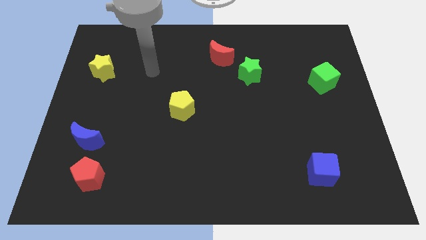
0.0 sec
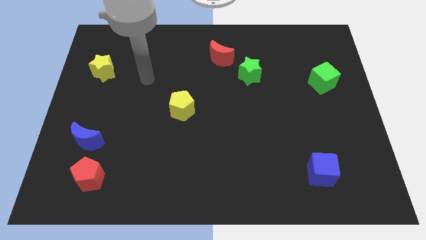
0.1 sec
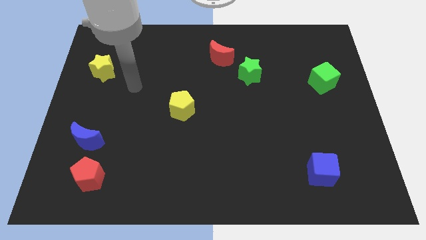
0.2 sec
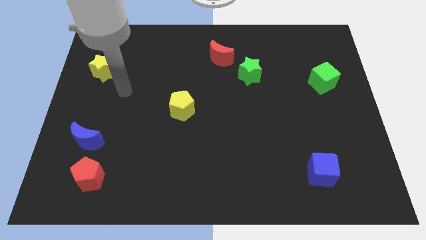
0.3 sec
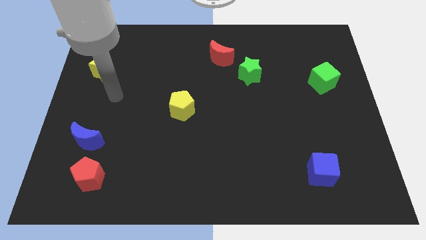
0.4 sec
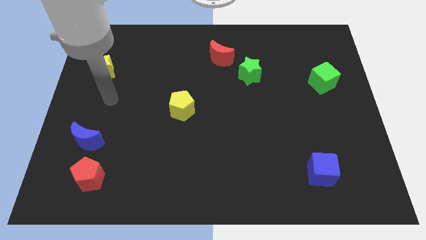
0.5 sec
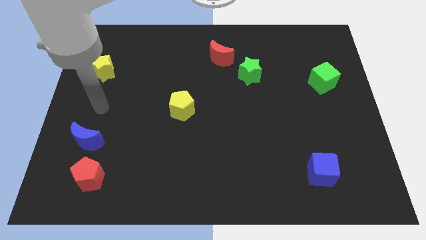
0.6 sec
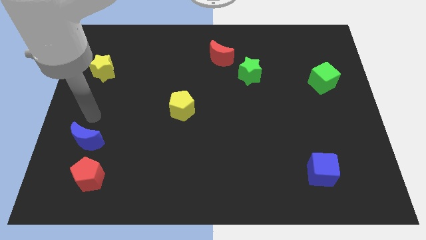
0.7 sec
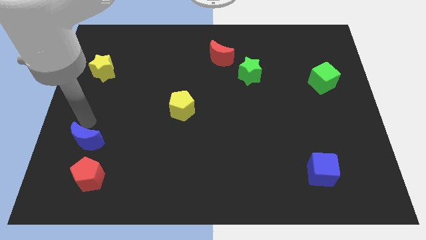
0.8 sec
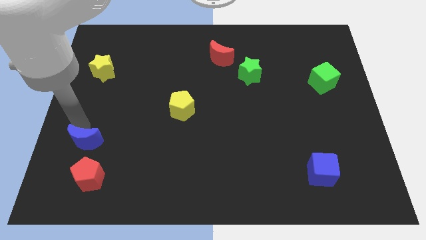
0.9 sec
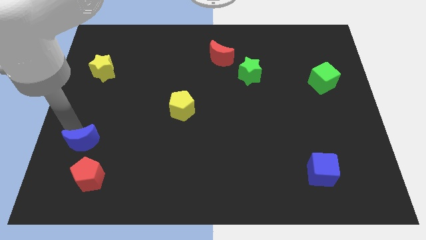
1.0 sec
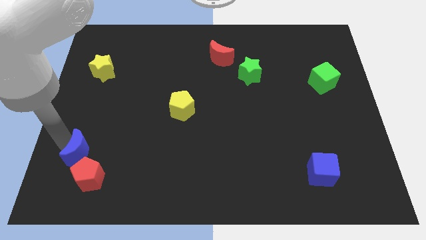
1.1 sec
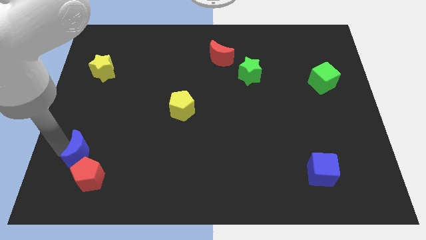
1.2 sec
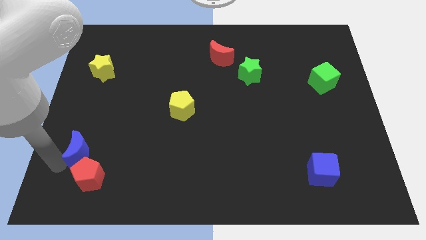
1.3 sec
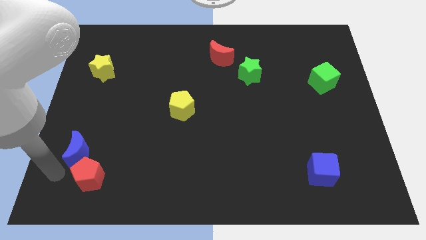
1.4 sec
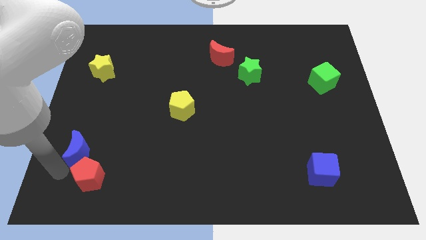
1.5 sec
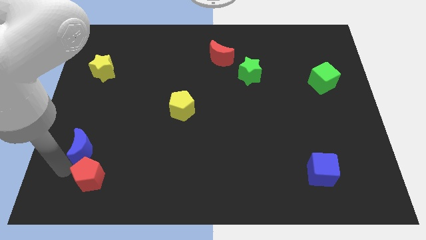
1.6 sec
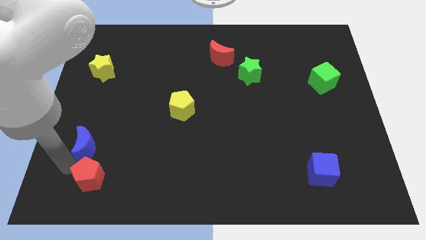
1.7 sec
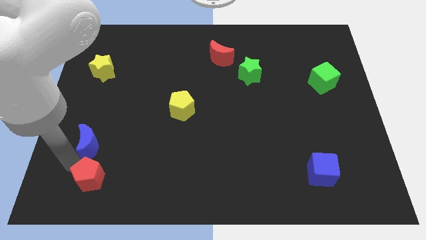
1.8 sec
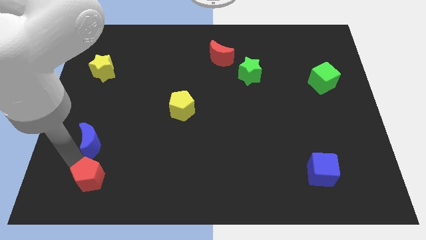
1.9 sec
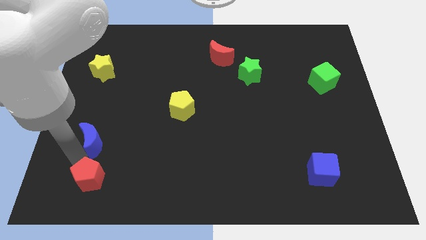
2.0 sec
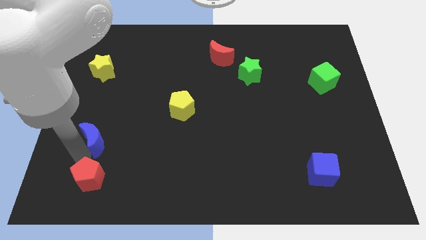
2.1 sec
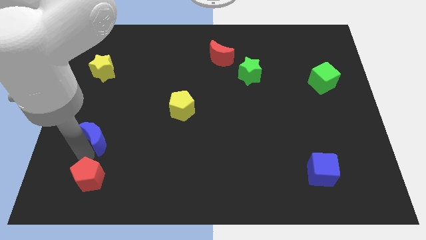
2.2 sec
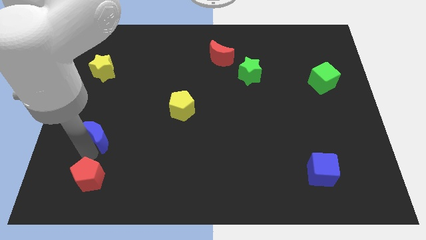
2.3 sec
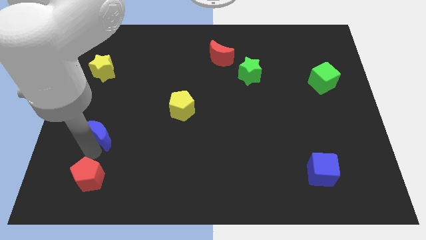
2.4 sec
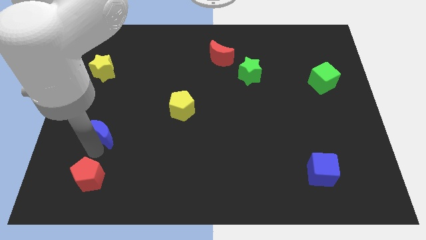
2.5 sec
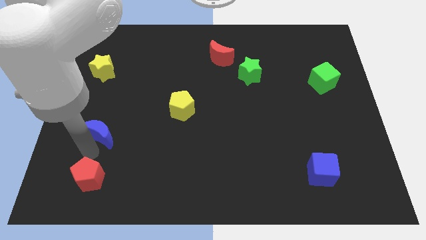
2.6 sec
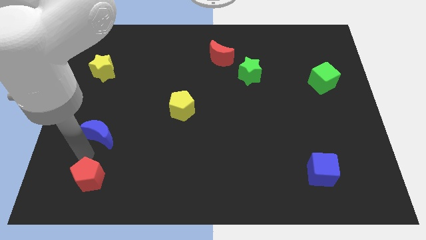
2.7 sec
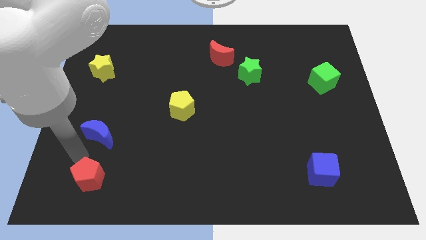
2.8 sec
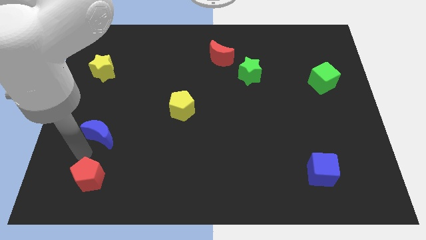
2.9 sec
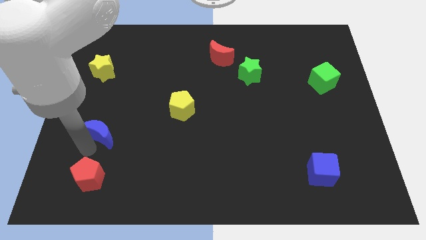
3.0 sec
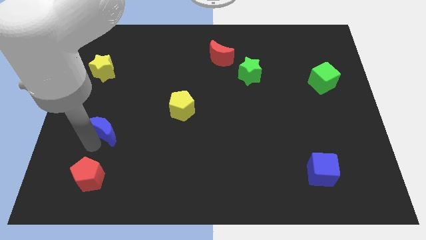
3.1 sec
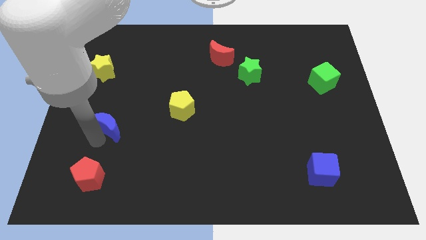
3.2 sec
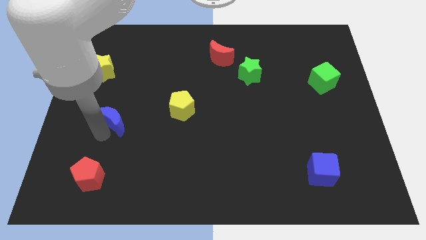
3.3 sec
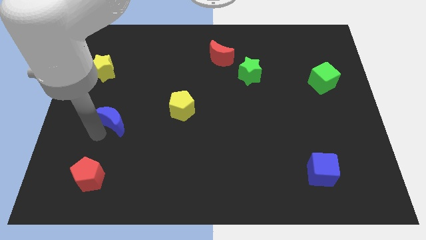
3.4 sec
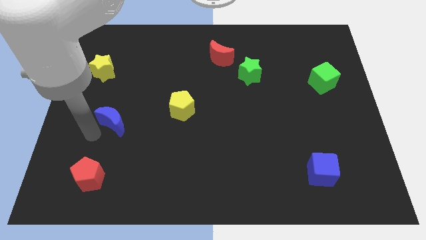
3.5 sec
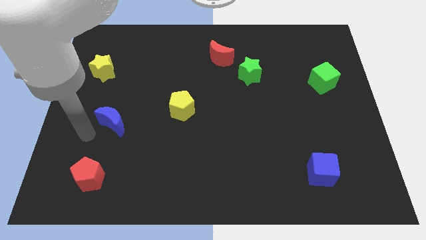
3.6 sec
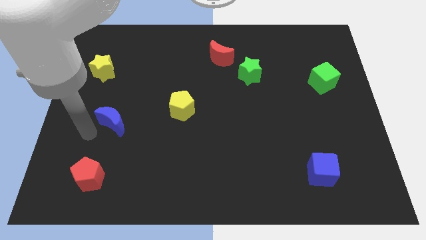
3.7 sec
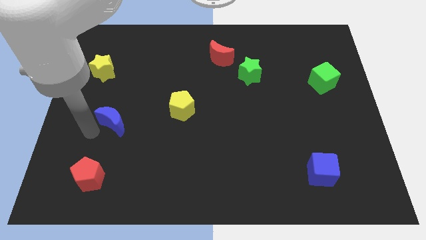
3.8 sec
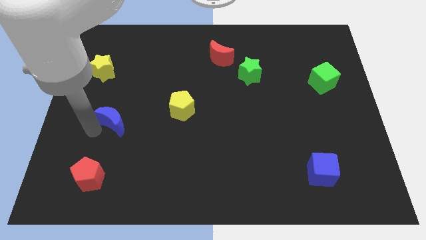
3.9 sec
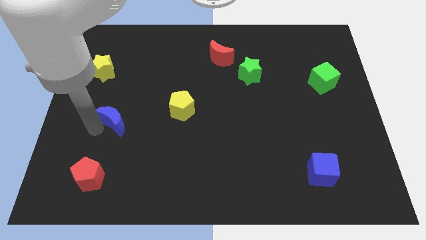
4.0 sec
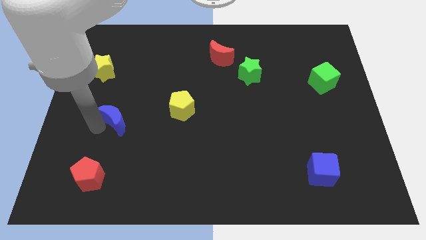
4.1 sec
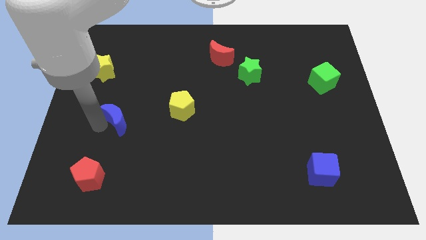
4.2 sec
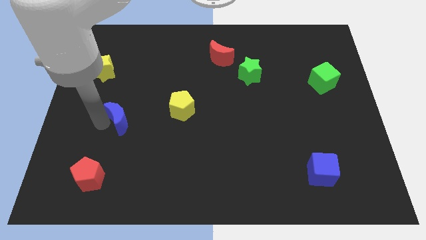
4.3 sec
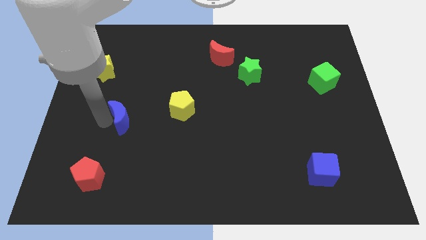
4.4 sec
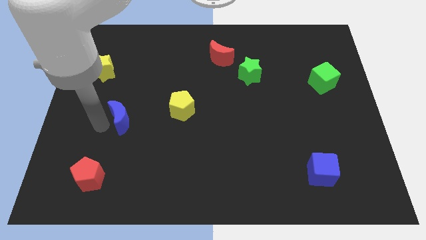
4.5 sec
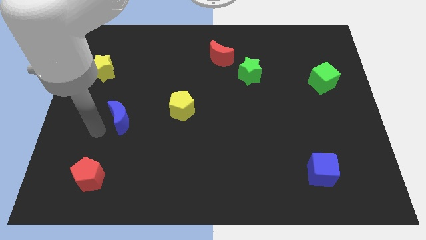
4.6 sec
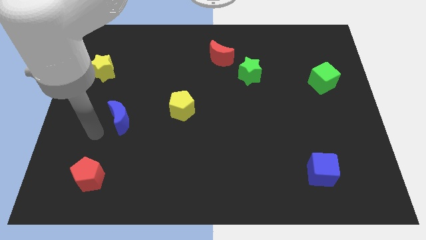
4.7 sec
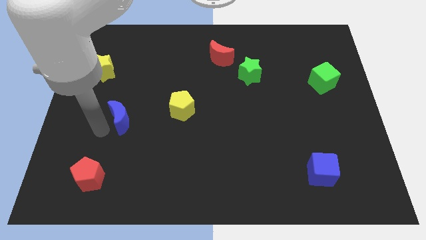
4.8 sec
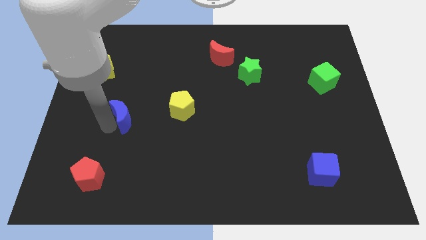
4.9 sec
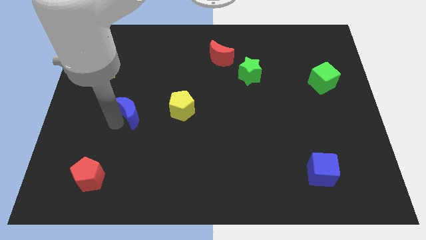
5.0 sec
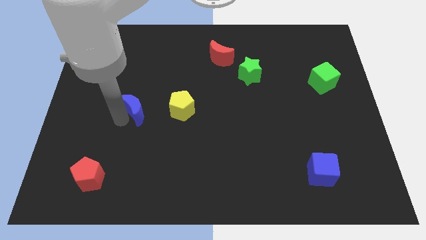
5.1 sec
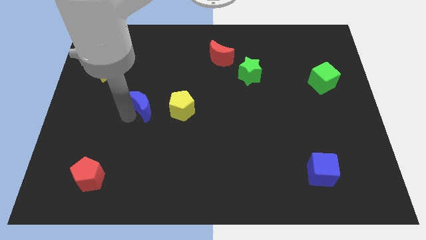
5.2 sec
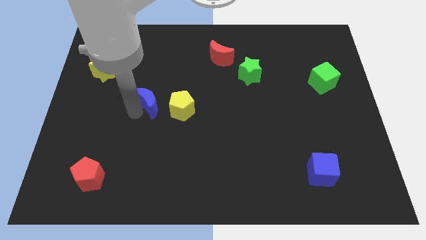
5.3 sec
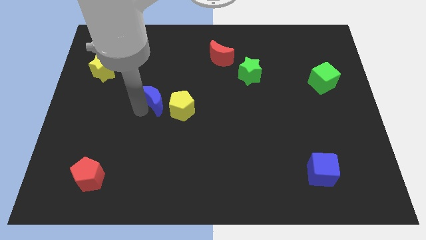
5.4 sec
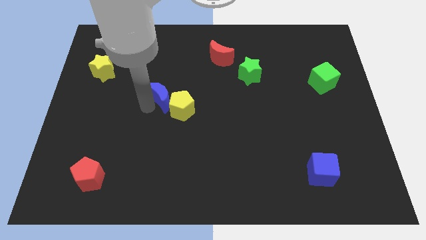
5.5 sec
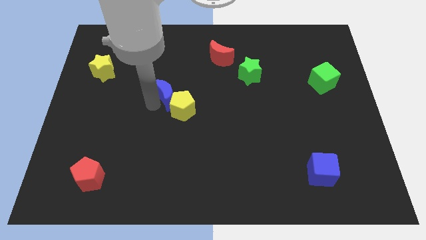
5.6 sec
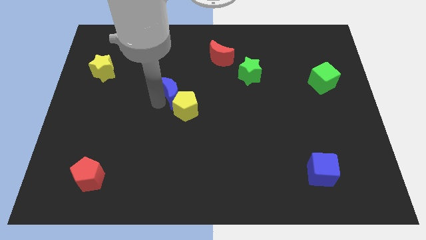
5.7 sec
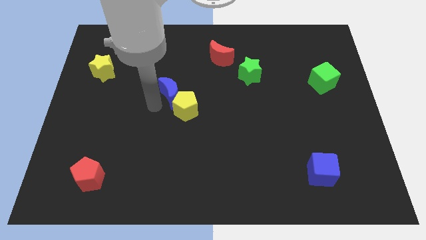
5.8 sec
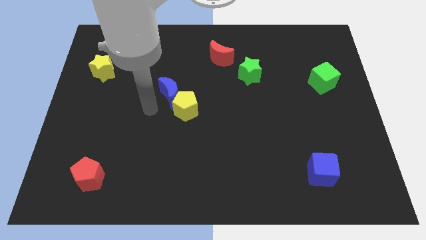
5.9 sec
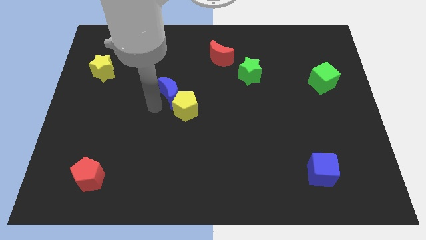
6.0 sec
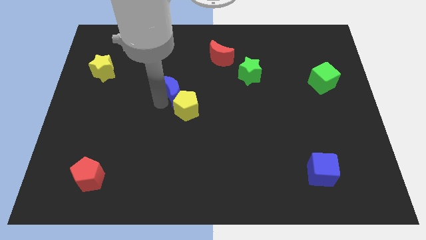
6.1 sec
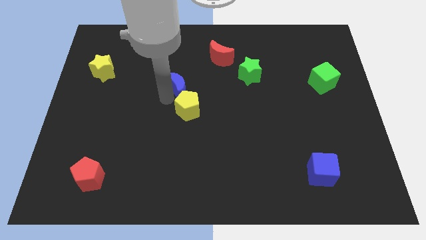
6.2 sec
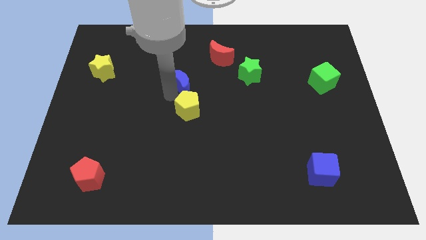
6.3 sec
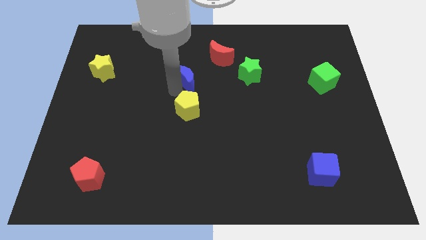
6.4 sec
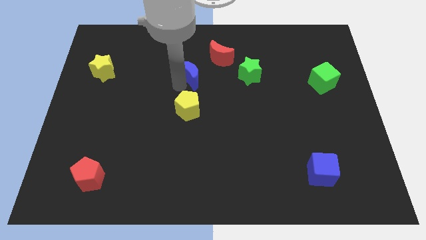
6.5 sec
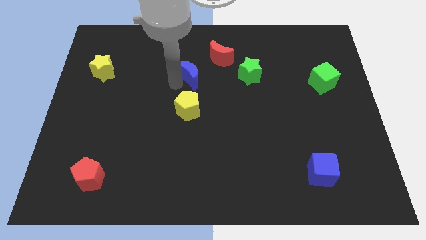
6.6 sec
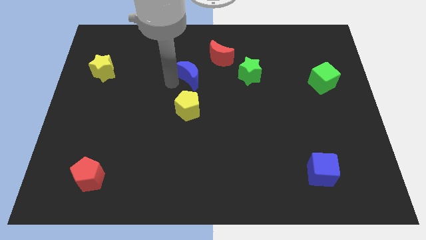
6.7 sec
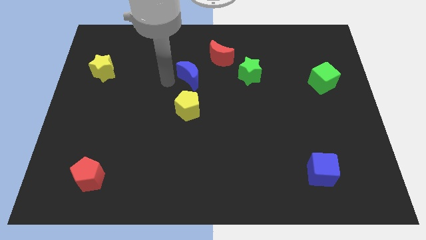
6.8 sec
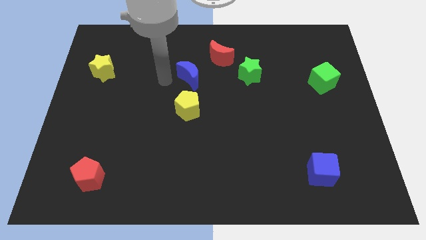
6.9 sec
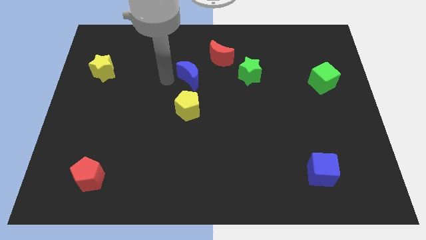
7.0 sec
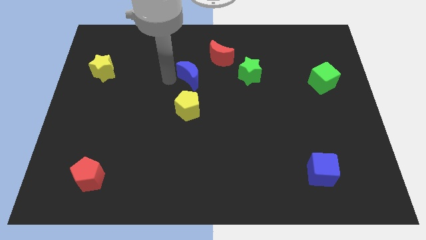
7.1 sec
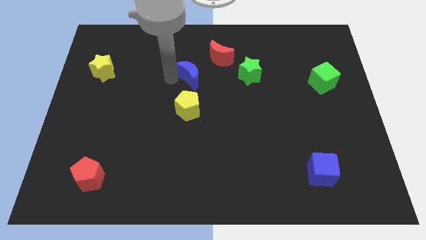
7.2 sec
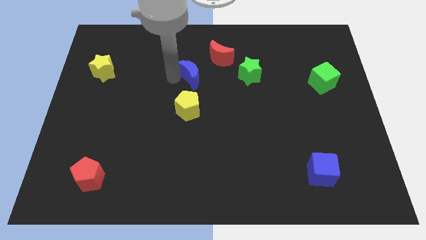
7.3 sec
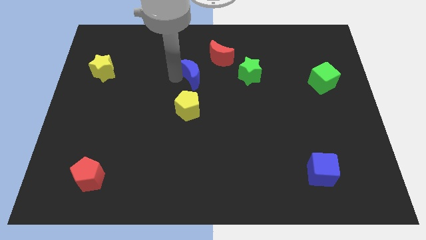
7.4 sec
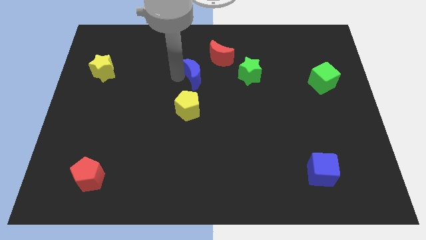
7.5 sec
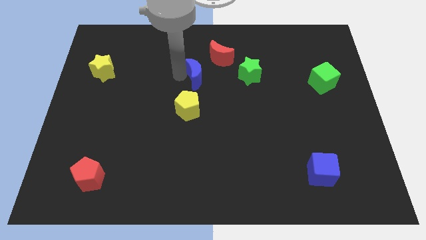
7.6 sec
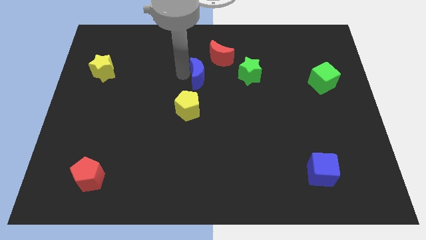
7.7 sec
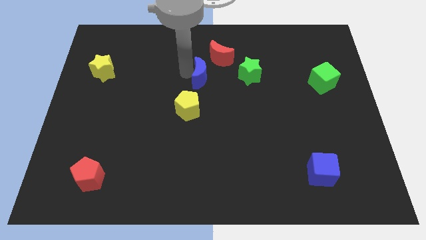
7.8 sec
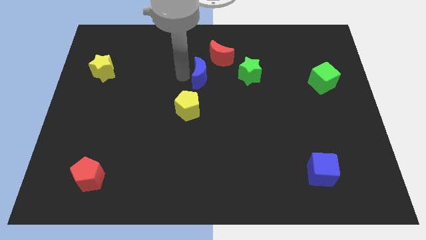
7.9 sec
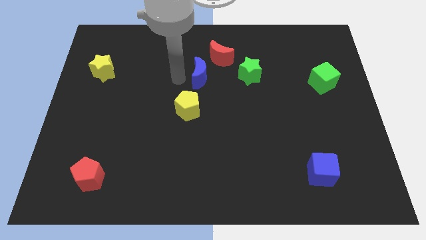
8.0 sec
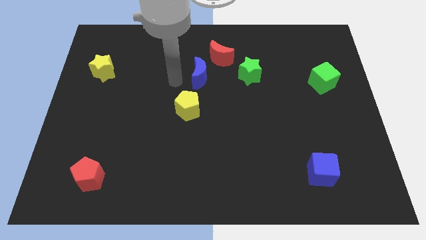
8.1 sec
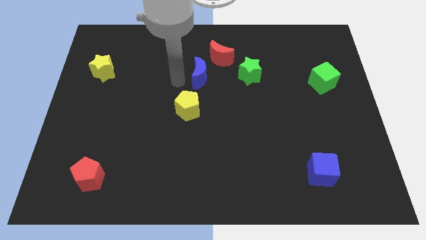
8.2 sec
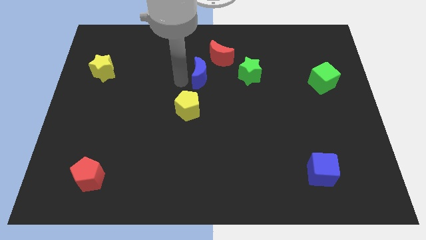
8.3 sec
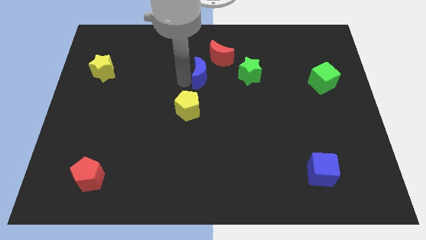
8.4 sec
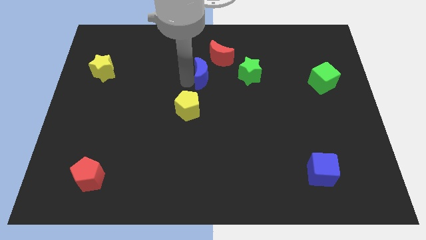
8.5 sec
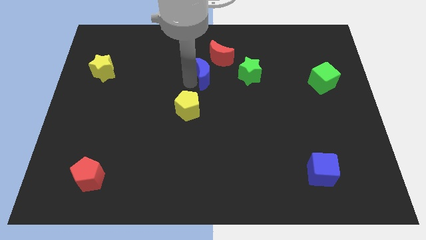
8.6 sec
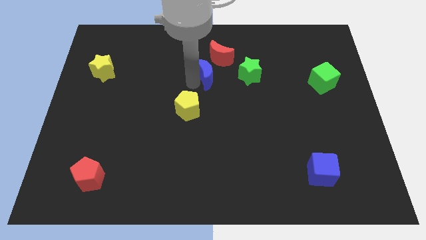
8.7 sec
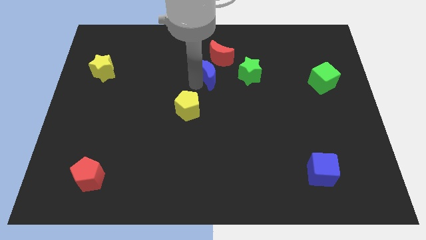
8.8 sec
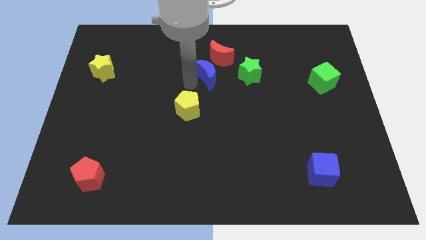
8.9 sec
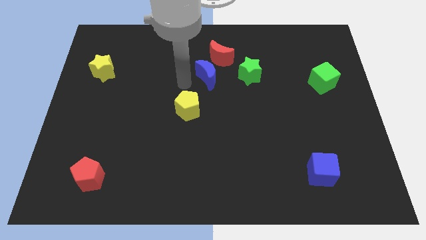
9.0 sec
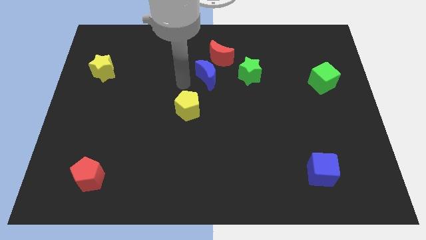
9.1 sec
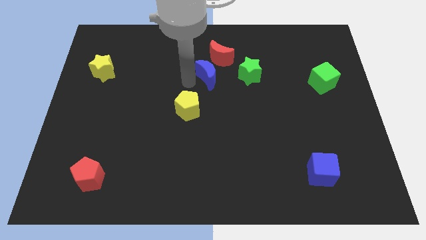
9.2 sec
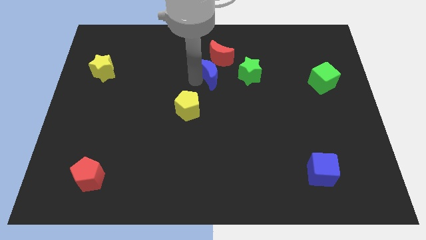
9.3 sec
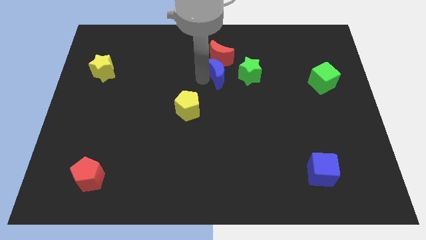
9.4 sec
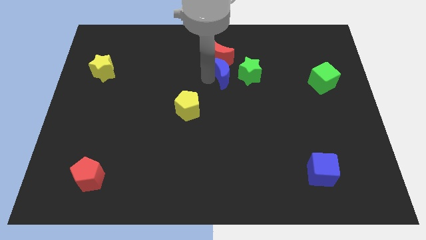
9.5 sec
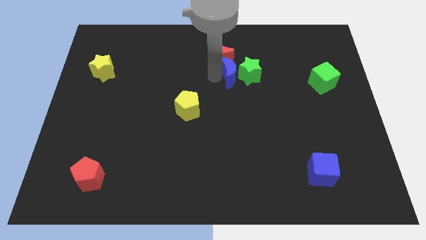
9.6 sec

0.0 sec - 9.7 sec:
move the blue moon to the green star
